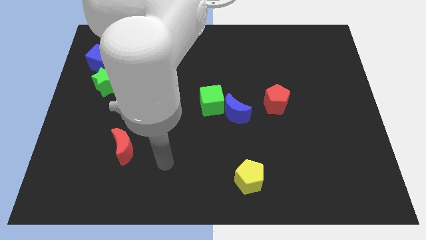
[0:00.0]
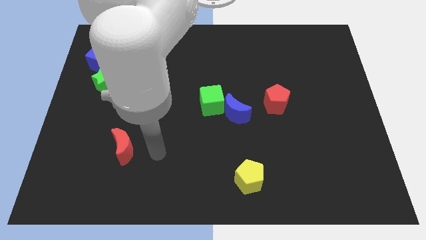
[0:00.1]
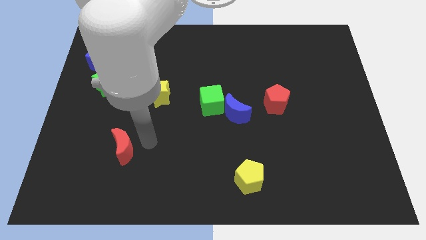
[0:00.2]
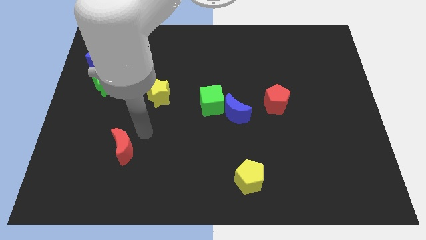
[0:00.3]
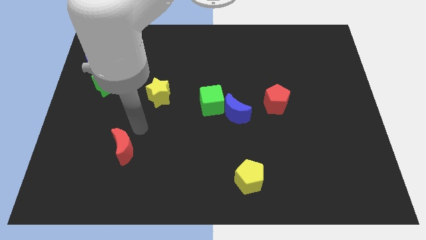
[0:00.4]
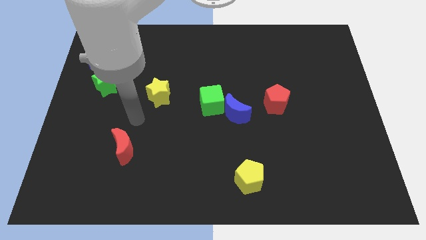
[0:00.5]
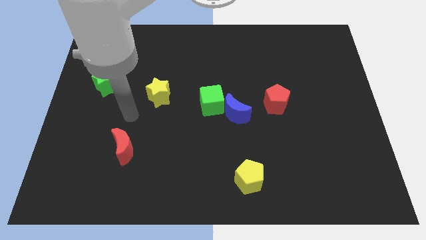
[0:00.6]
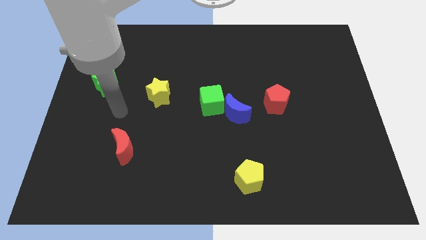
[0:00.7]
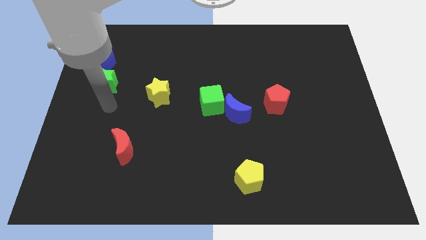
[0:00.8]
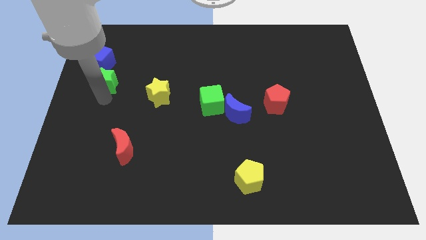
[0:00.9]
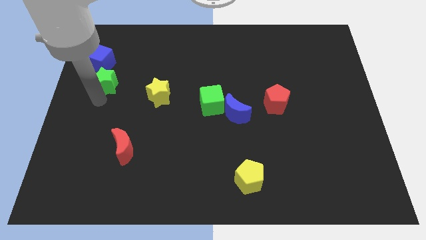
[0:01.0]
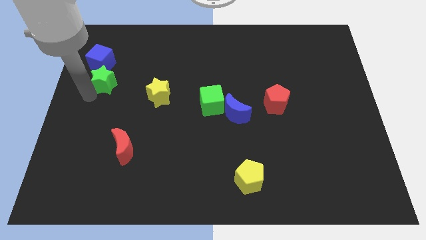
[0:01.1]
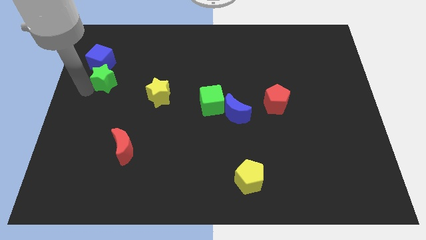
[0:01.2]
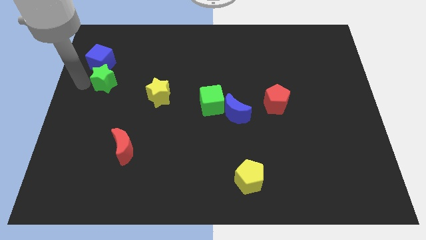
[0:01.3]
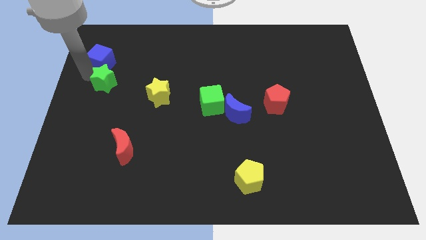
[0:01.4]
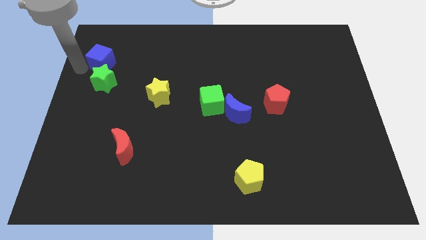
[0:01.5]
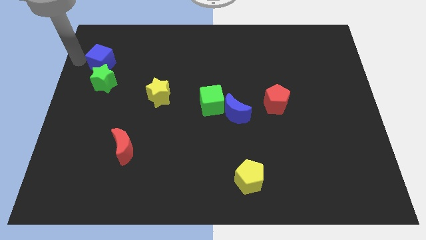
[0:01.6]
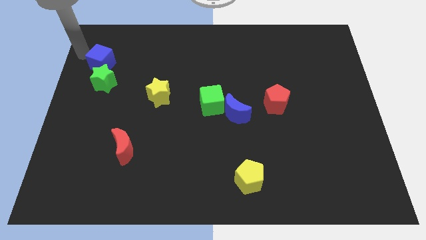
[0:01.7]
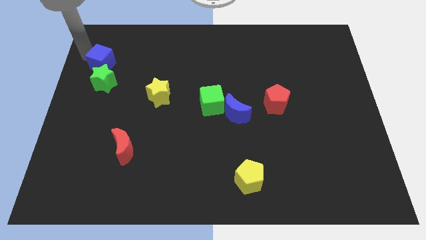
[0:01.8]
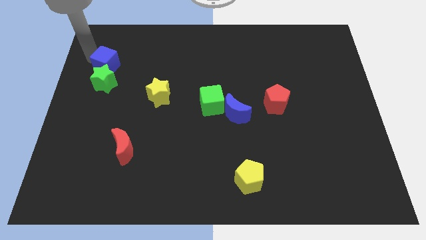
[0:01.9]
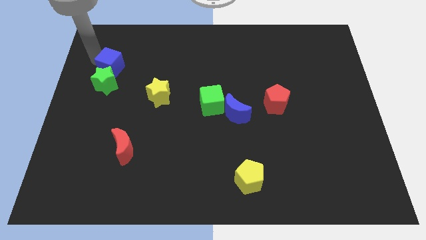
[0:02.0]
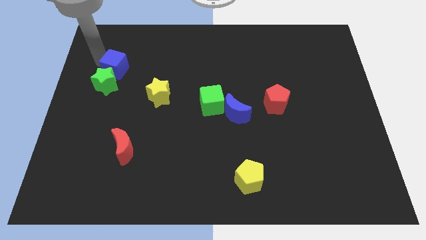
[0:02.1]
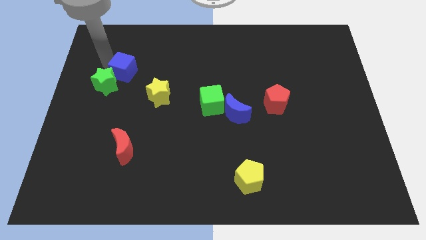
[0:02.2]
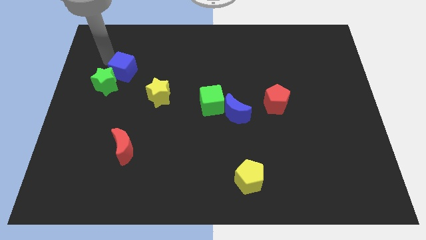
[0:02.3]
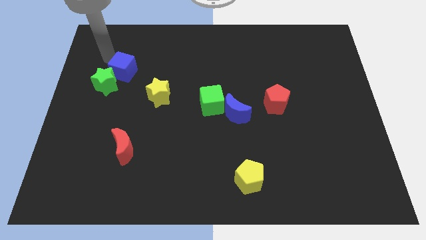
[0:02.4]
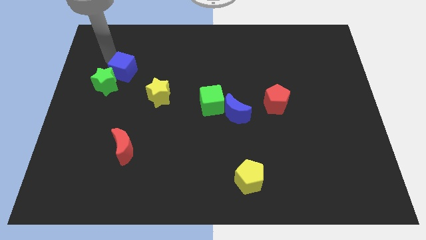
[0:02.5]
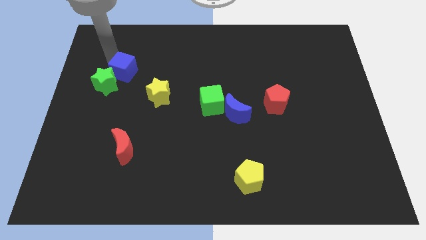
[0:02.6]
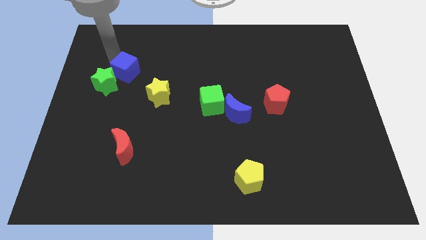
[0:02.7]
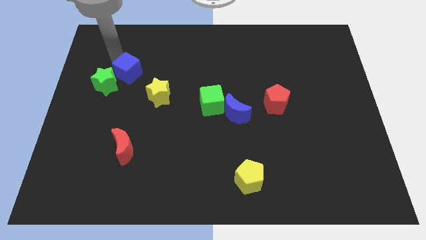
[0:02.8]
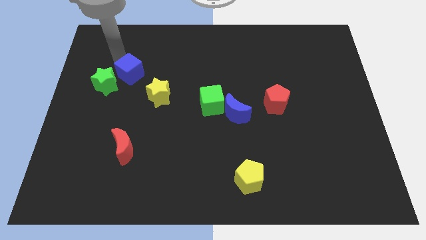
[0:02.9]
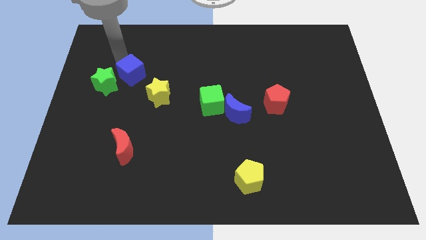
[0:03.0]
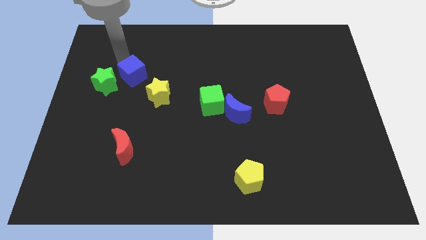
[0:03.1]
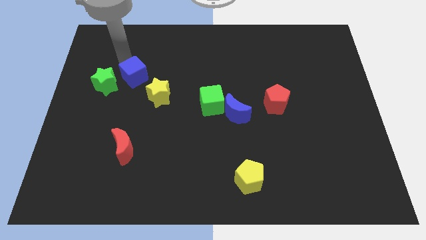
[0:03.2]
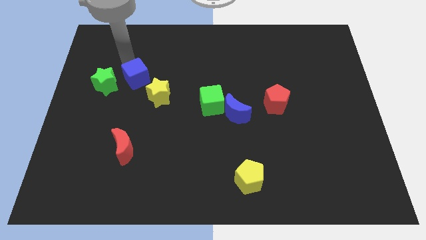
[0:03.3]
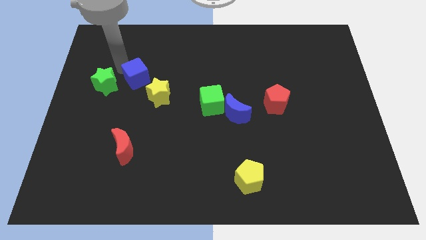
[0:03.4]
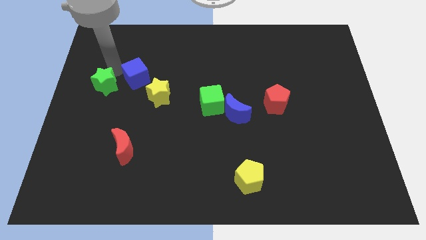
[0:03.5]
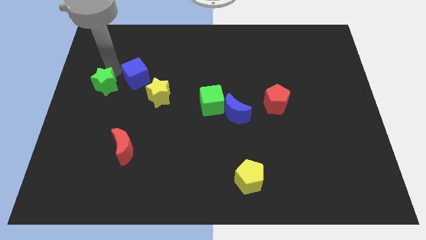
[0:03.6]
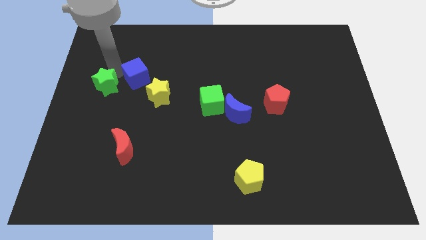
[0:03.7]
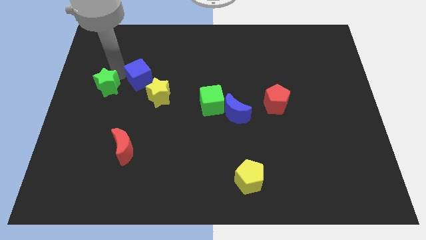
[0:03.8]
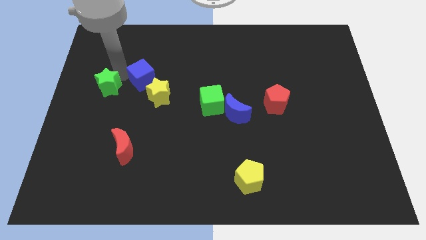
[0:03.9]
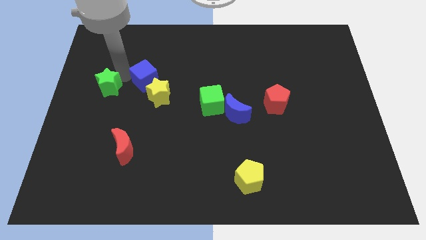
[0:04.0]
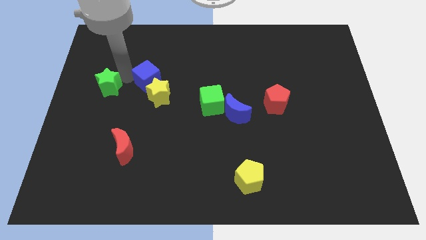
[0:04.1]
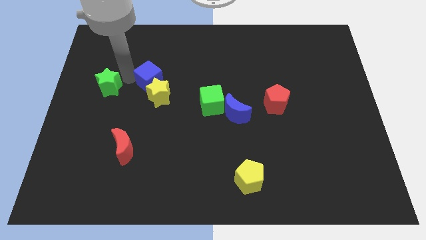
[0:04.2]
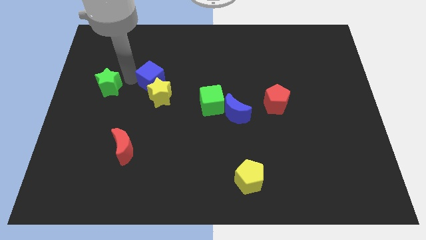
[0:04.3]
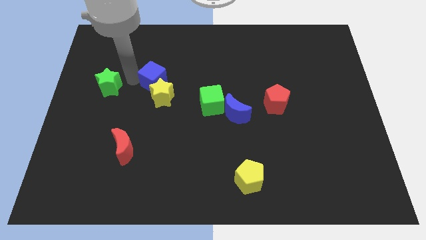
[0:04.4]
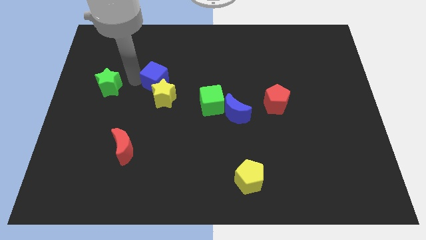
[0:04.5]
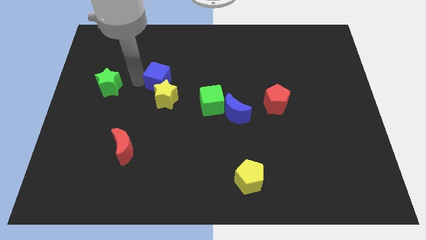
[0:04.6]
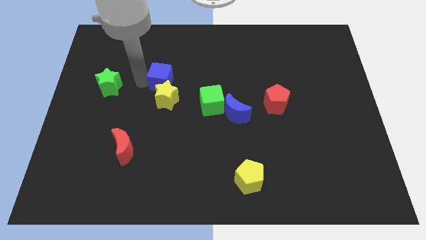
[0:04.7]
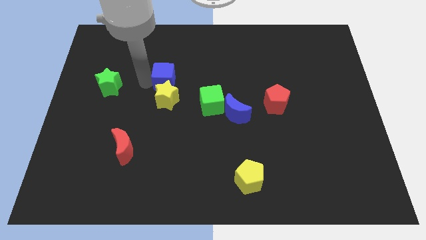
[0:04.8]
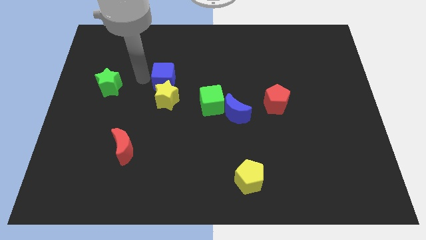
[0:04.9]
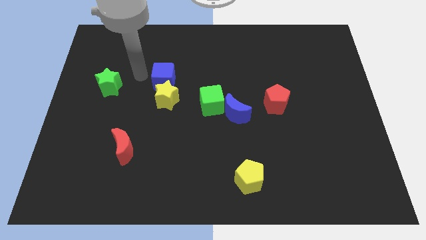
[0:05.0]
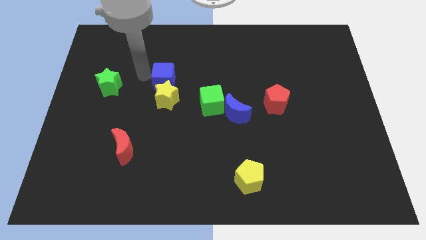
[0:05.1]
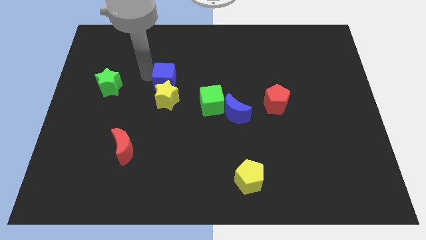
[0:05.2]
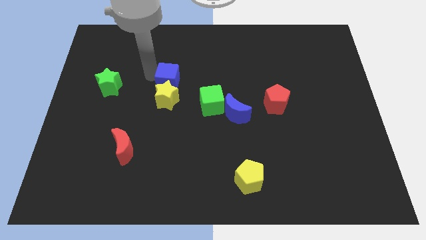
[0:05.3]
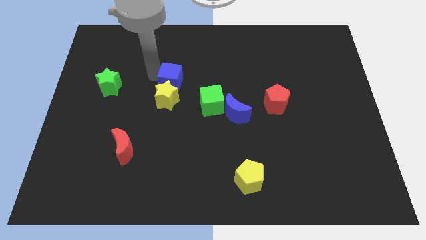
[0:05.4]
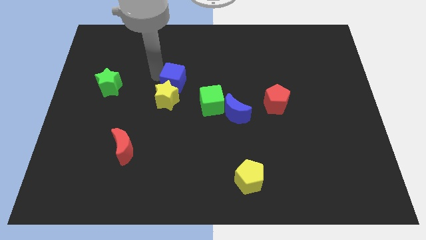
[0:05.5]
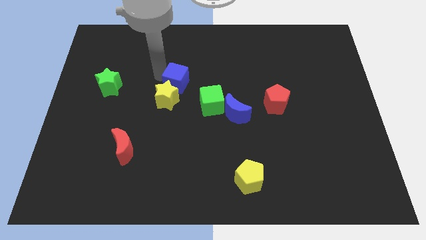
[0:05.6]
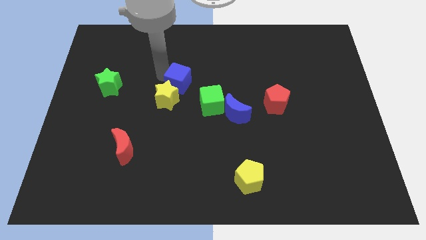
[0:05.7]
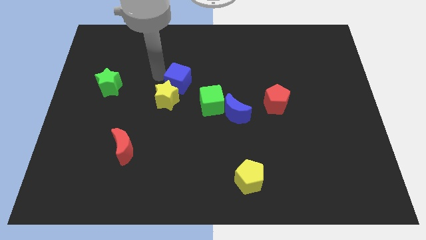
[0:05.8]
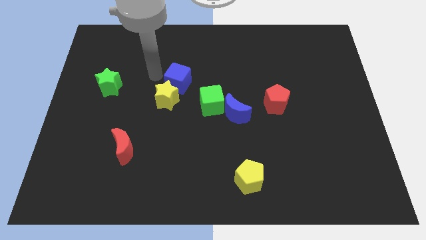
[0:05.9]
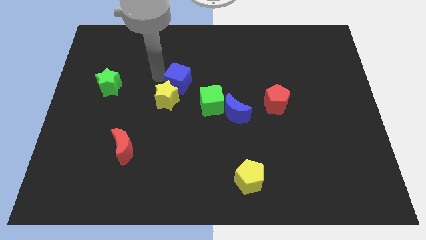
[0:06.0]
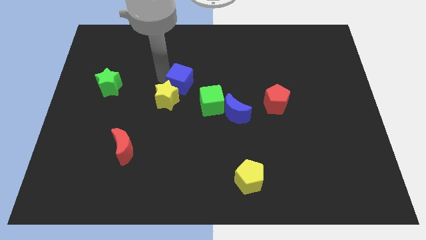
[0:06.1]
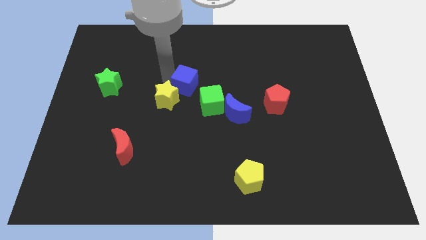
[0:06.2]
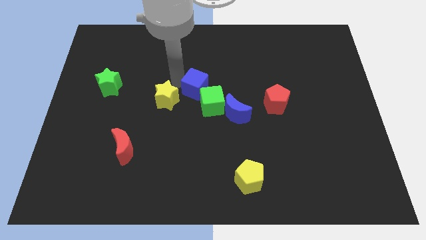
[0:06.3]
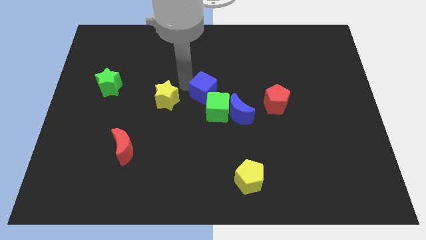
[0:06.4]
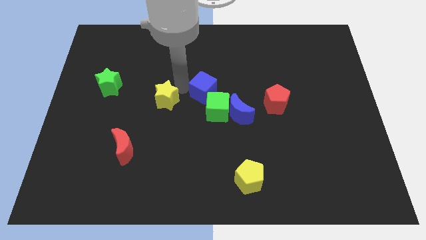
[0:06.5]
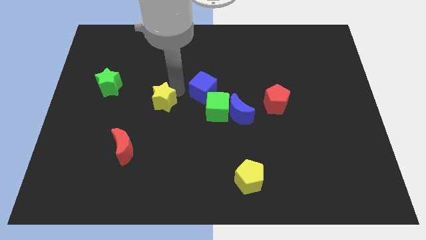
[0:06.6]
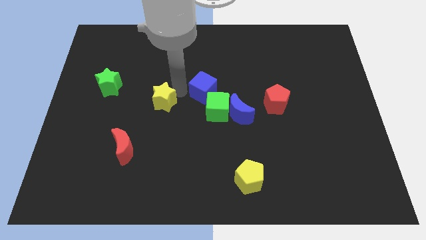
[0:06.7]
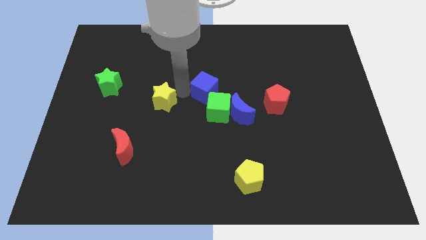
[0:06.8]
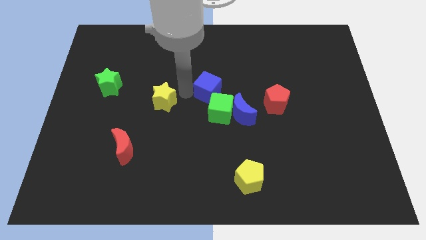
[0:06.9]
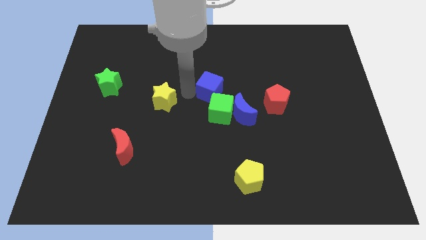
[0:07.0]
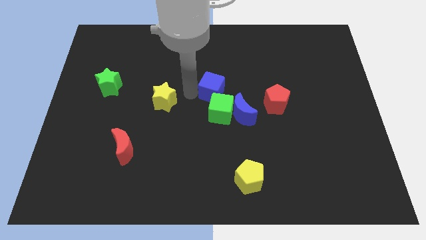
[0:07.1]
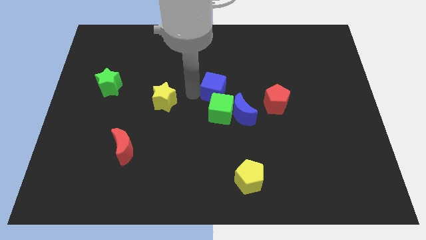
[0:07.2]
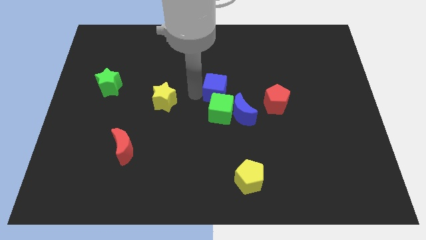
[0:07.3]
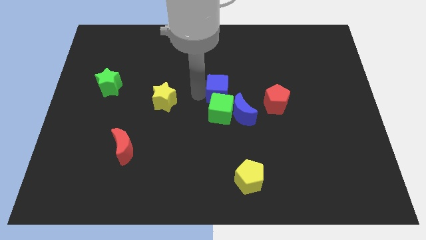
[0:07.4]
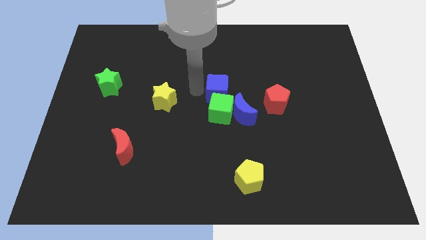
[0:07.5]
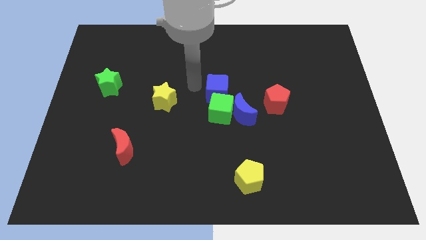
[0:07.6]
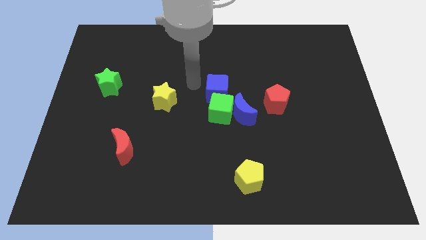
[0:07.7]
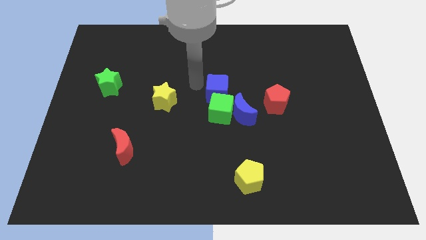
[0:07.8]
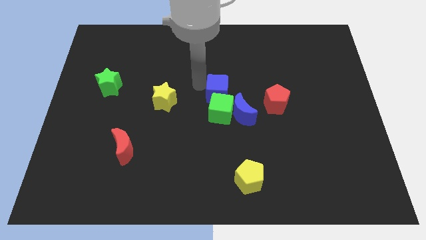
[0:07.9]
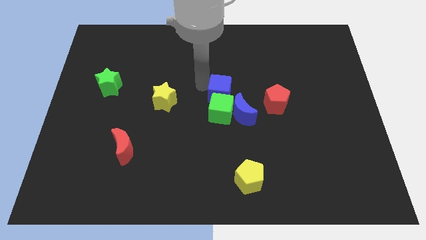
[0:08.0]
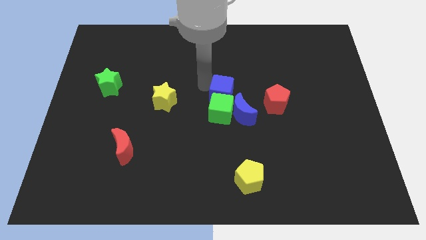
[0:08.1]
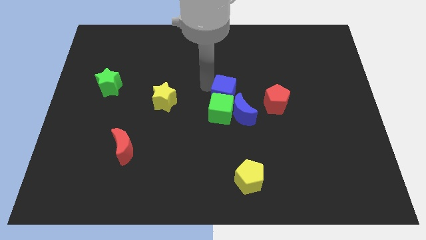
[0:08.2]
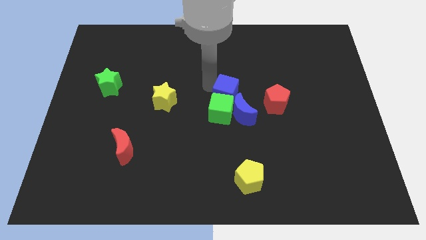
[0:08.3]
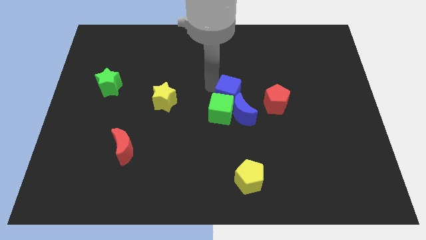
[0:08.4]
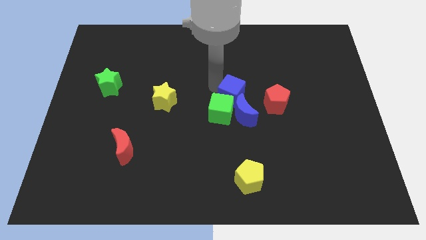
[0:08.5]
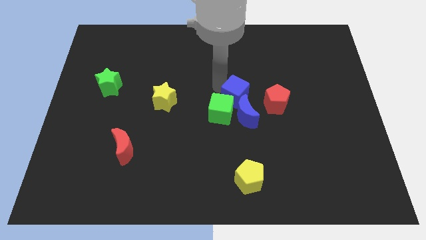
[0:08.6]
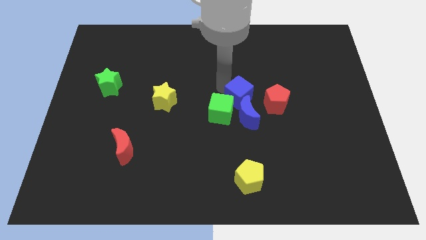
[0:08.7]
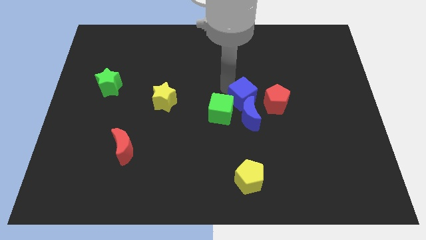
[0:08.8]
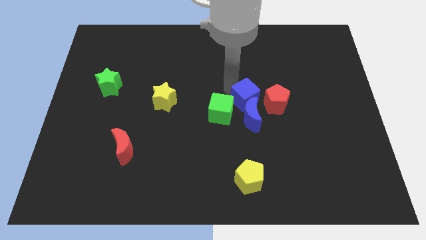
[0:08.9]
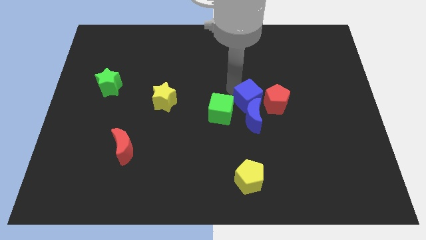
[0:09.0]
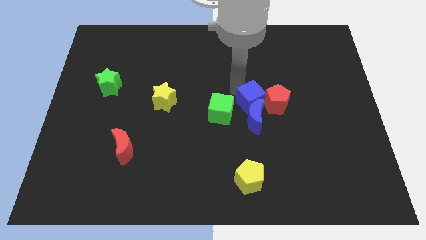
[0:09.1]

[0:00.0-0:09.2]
move the blue cube to the bottom left of the red pentagon
